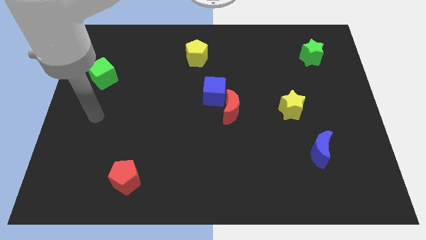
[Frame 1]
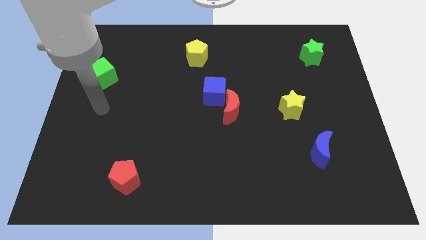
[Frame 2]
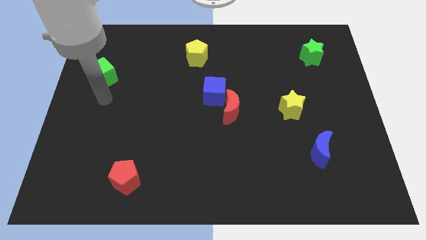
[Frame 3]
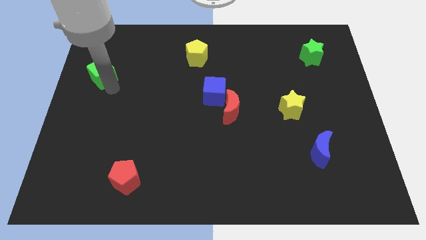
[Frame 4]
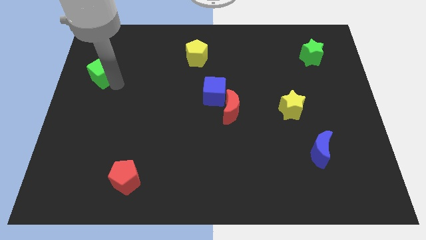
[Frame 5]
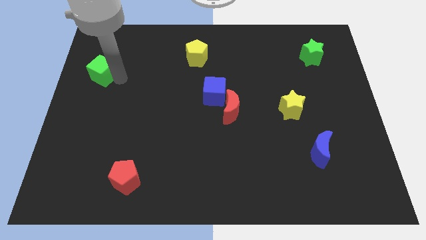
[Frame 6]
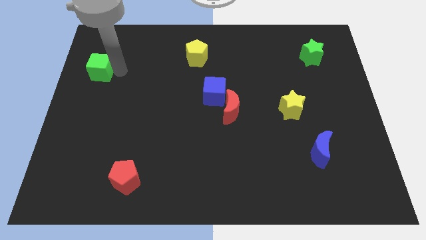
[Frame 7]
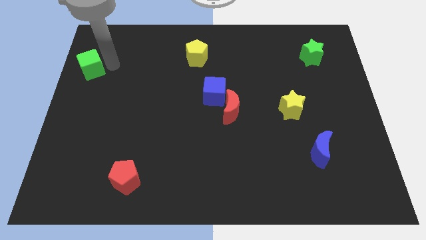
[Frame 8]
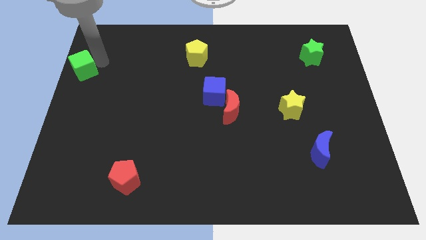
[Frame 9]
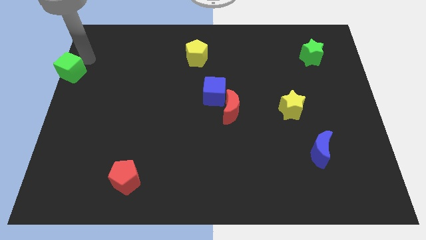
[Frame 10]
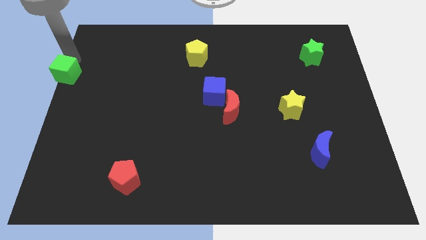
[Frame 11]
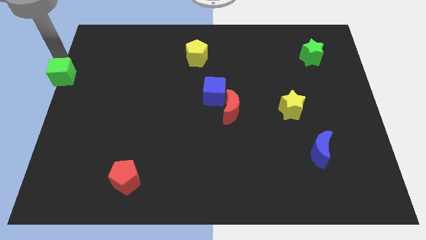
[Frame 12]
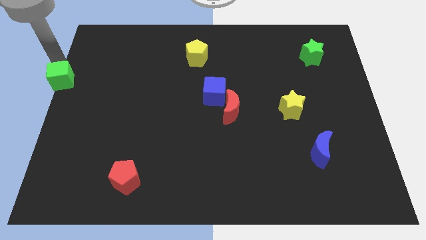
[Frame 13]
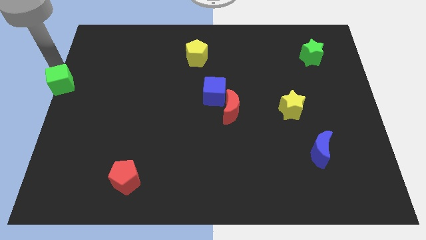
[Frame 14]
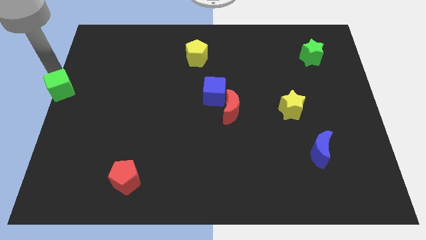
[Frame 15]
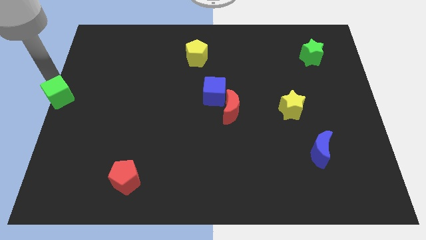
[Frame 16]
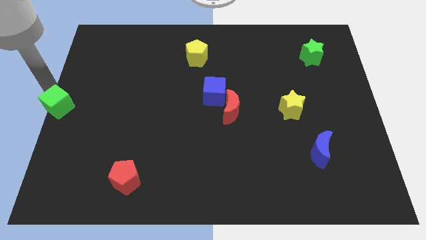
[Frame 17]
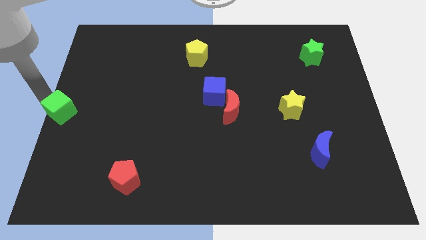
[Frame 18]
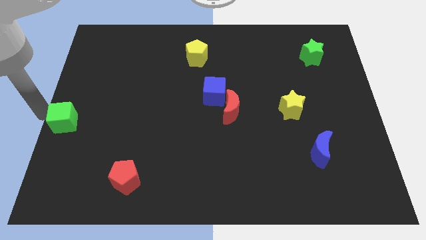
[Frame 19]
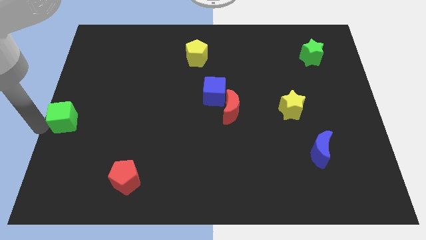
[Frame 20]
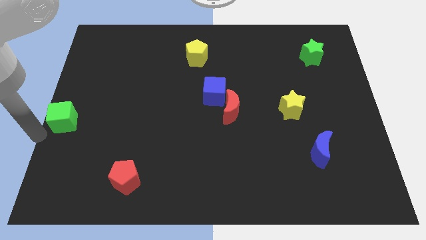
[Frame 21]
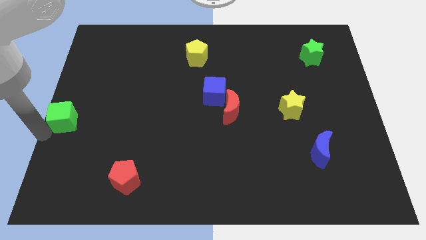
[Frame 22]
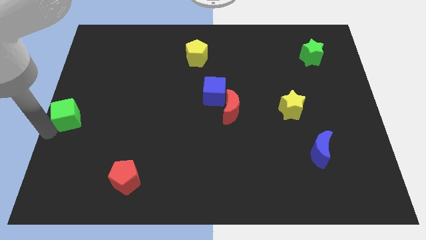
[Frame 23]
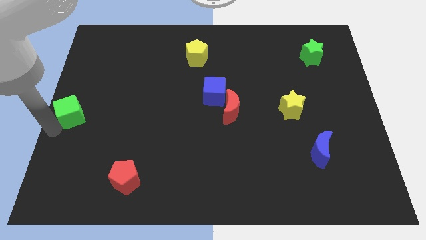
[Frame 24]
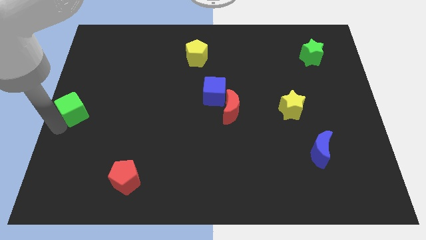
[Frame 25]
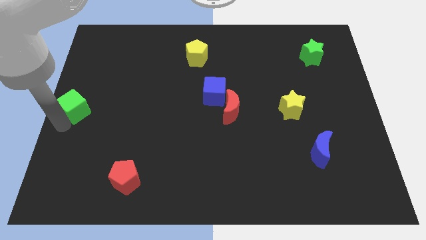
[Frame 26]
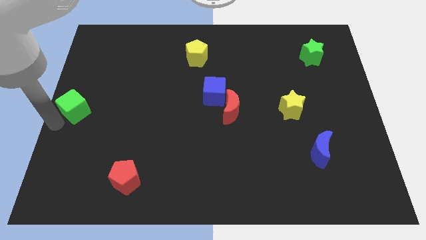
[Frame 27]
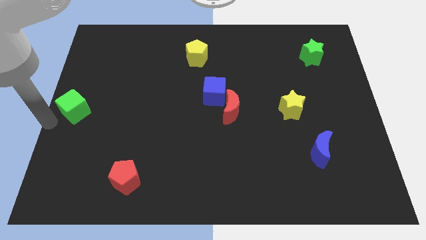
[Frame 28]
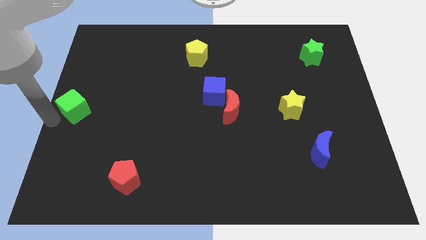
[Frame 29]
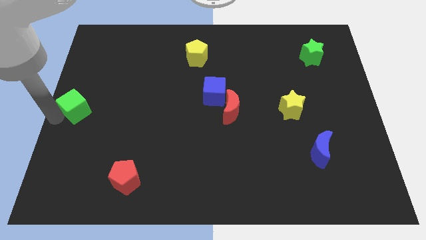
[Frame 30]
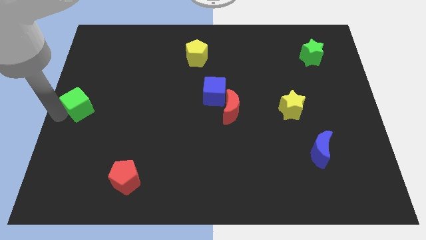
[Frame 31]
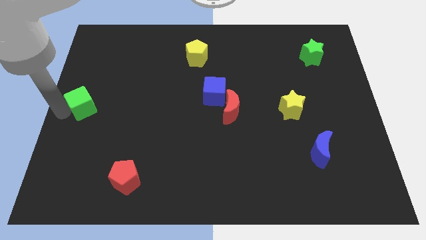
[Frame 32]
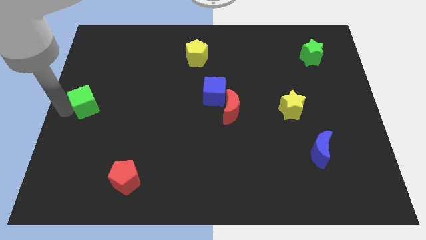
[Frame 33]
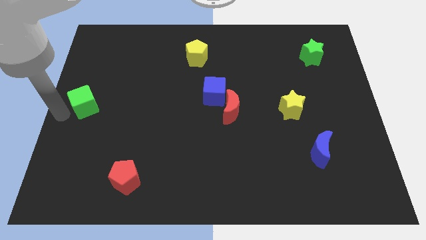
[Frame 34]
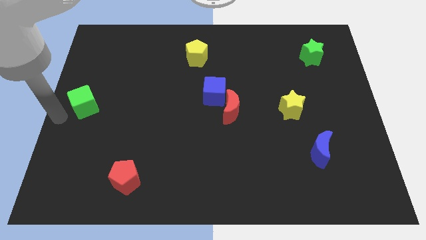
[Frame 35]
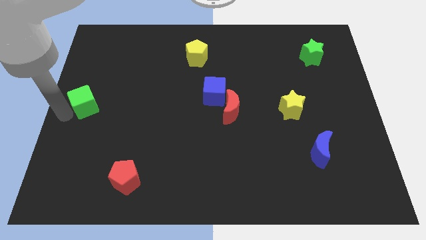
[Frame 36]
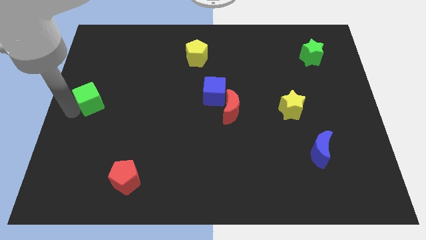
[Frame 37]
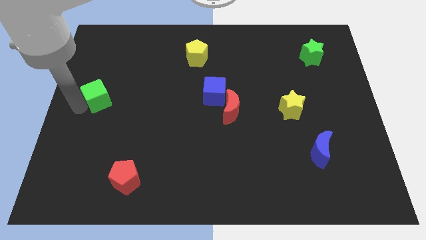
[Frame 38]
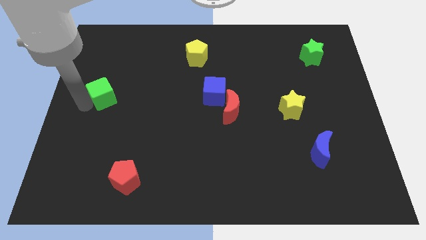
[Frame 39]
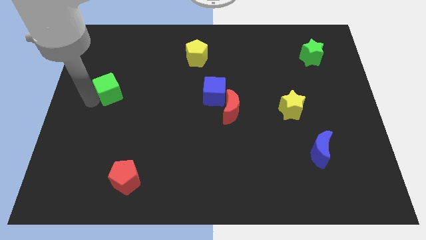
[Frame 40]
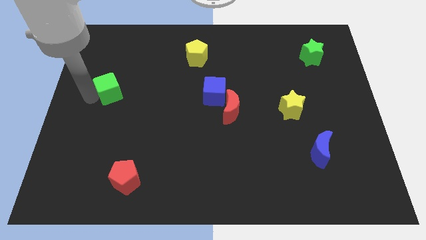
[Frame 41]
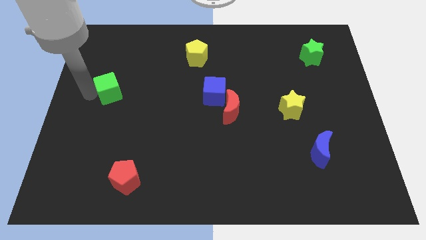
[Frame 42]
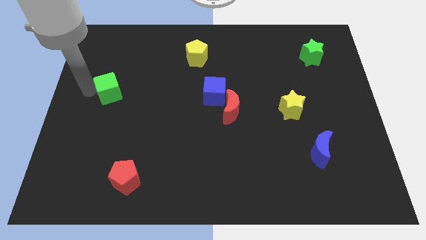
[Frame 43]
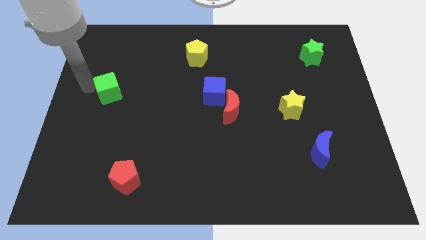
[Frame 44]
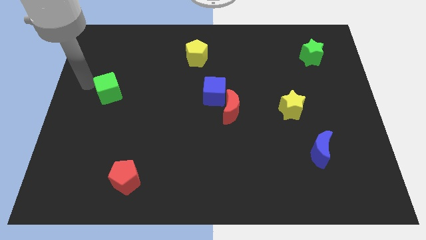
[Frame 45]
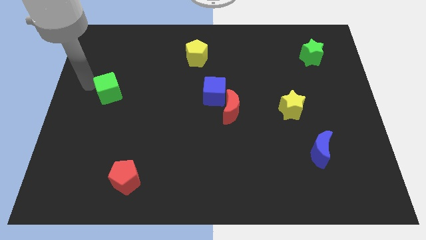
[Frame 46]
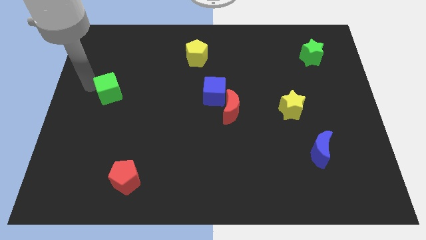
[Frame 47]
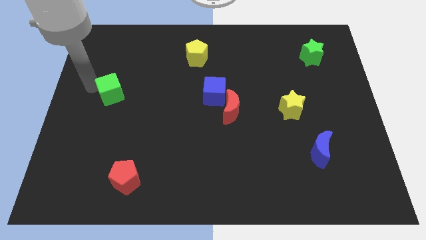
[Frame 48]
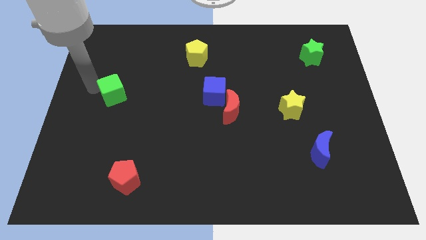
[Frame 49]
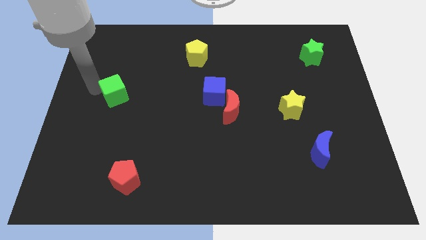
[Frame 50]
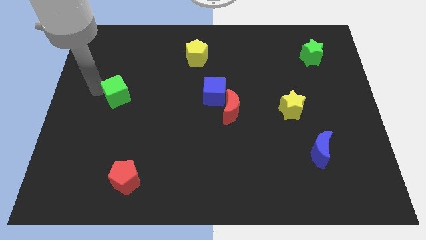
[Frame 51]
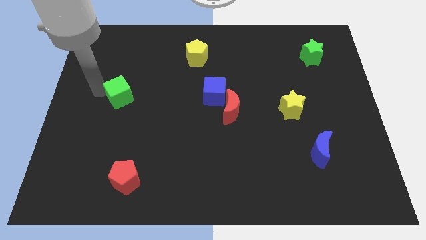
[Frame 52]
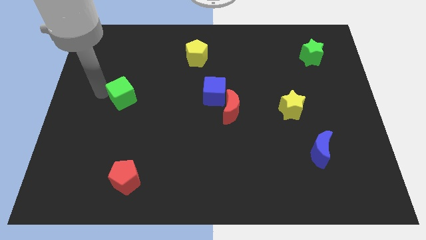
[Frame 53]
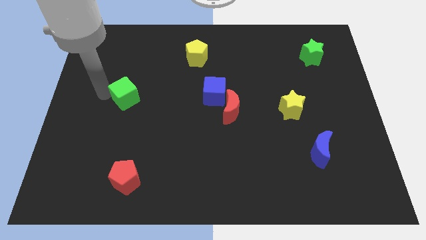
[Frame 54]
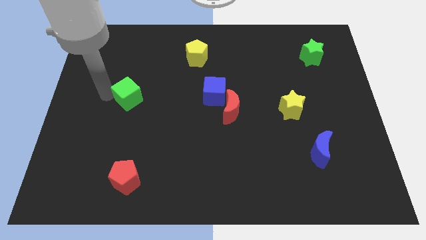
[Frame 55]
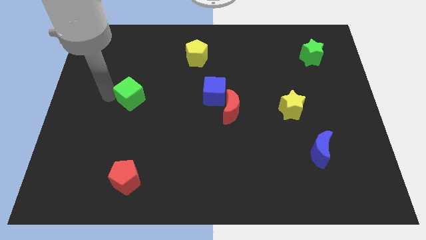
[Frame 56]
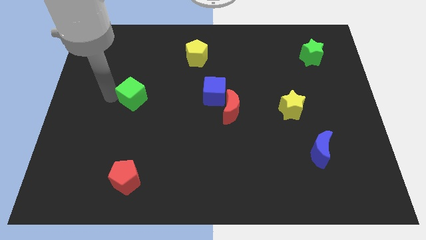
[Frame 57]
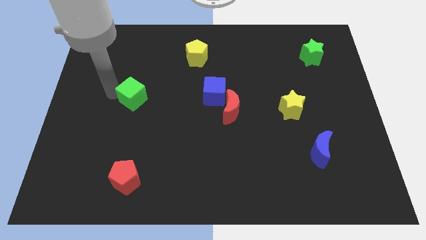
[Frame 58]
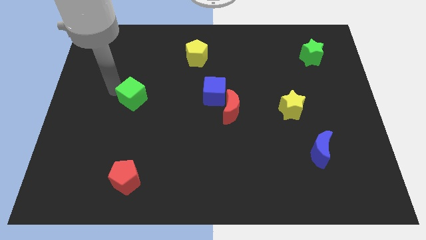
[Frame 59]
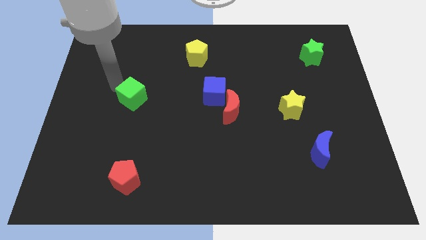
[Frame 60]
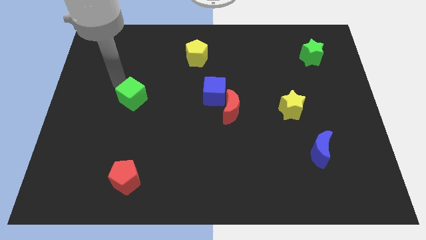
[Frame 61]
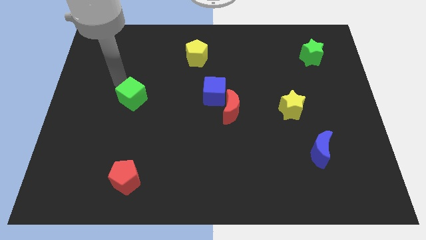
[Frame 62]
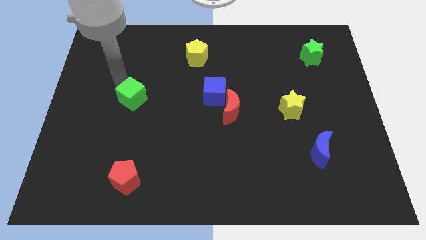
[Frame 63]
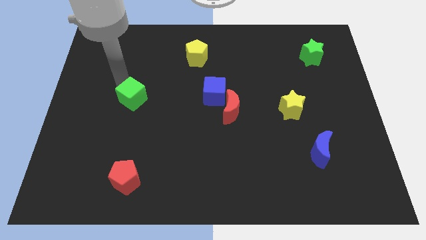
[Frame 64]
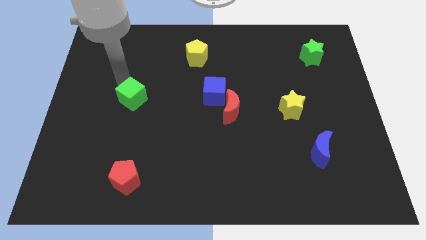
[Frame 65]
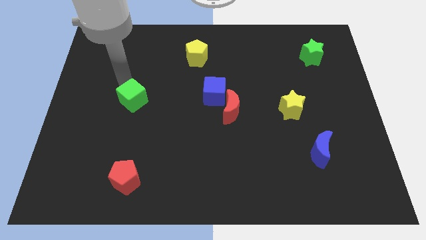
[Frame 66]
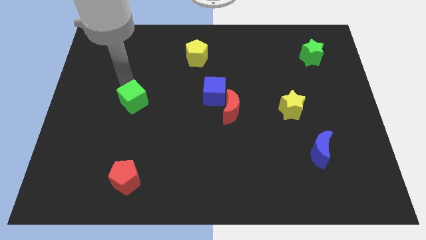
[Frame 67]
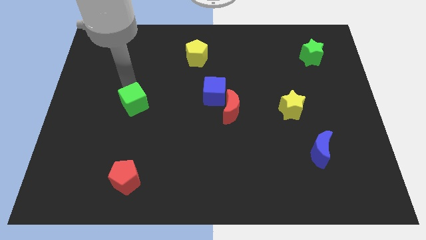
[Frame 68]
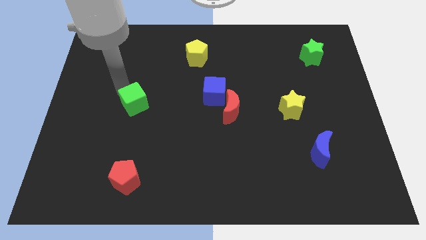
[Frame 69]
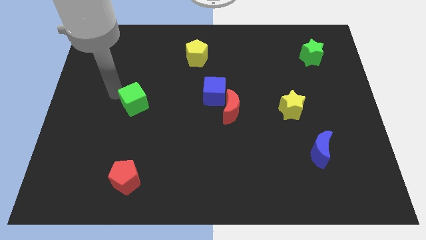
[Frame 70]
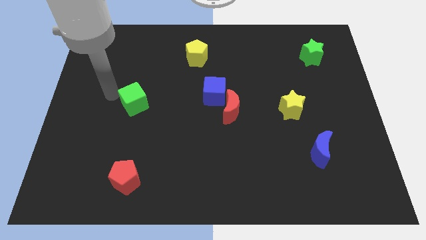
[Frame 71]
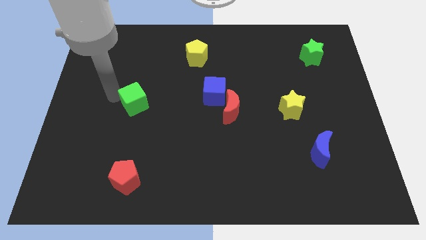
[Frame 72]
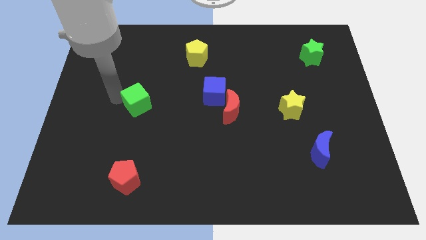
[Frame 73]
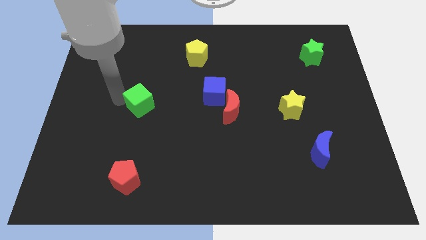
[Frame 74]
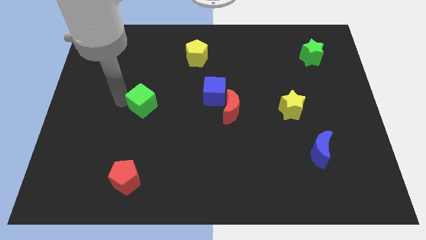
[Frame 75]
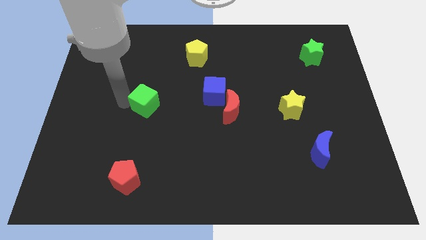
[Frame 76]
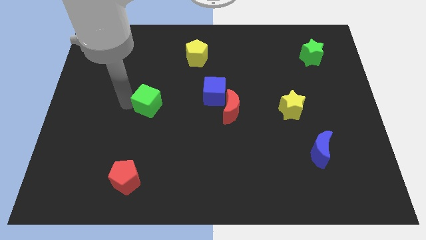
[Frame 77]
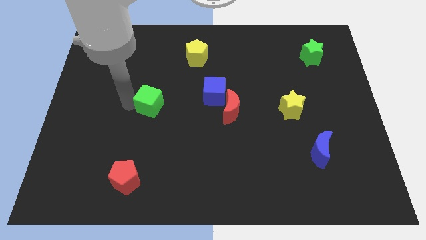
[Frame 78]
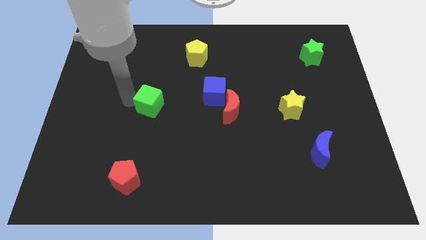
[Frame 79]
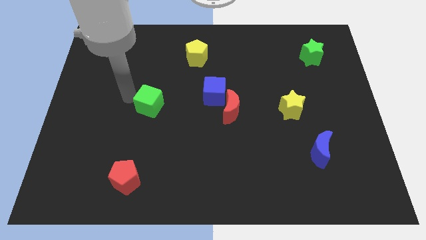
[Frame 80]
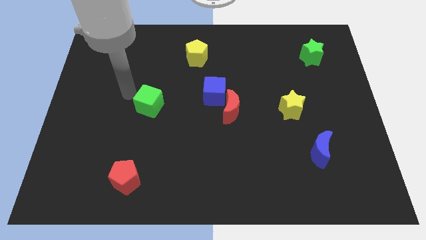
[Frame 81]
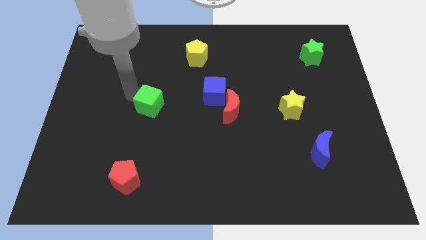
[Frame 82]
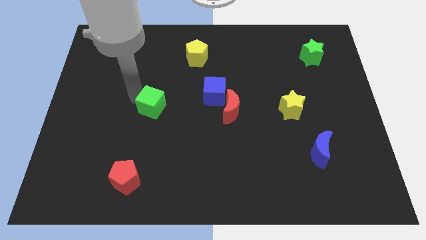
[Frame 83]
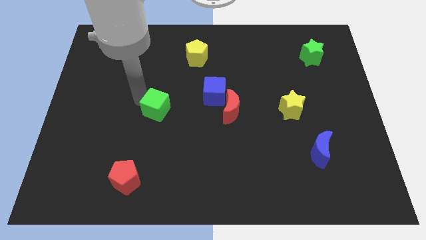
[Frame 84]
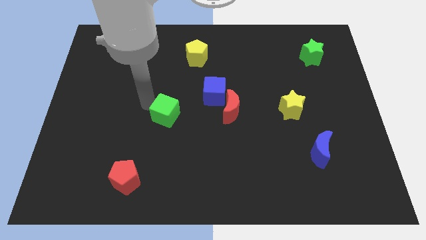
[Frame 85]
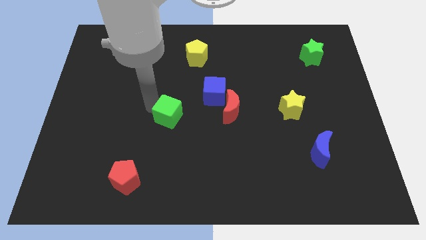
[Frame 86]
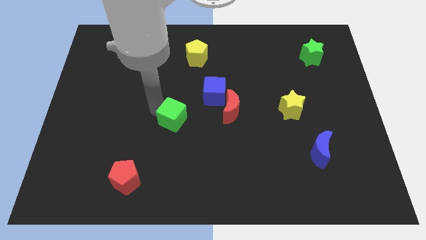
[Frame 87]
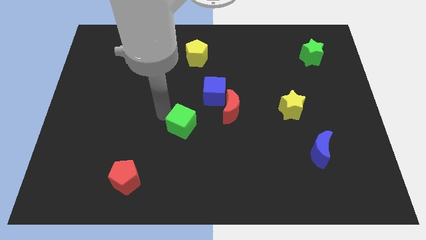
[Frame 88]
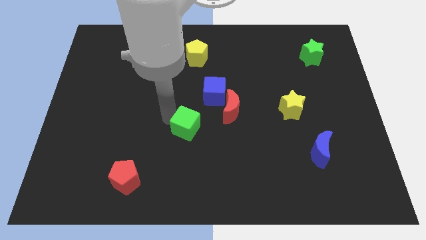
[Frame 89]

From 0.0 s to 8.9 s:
slide the green cube diagonally down and to the left of the red moon
